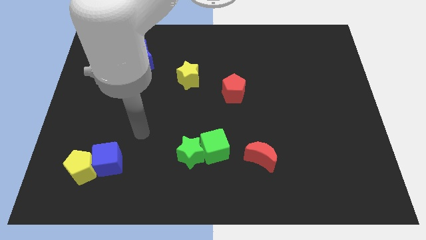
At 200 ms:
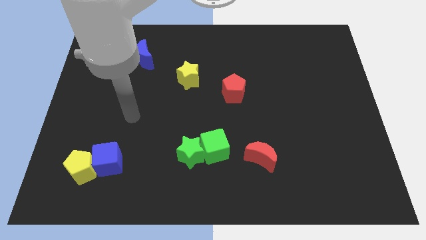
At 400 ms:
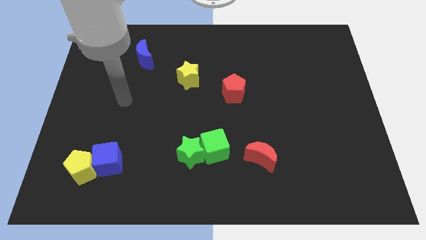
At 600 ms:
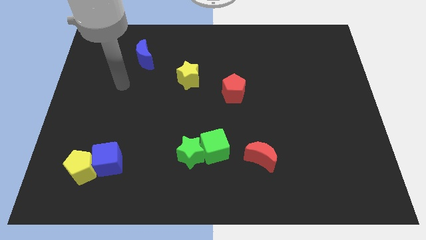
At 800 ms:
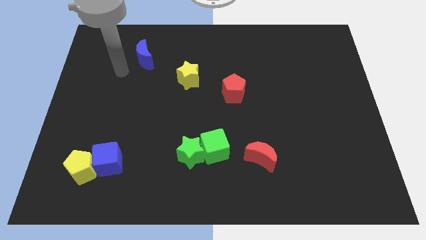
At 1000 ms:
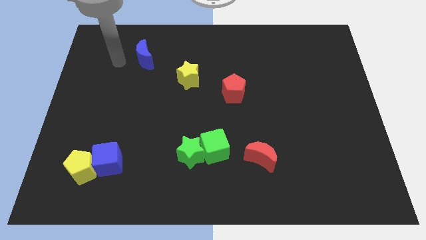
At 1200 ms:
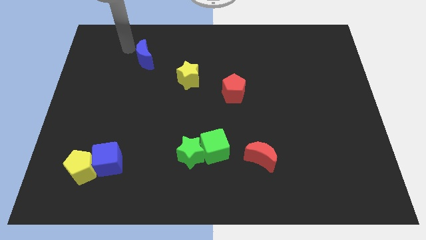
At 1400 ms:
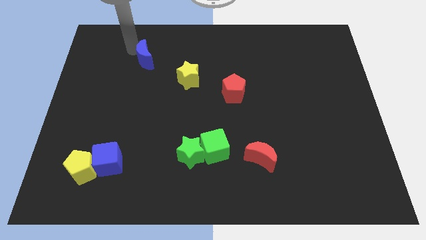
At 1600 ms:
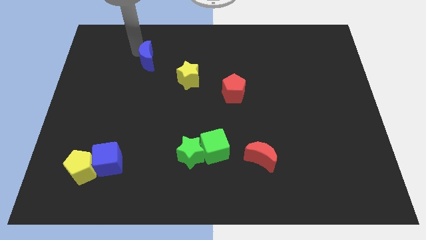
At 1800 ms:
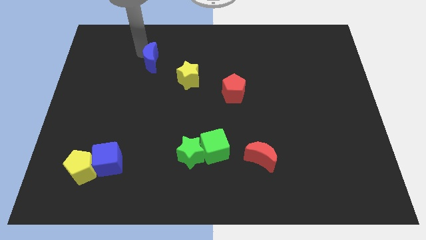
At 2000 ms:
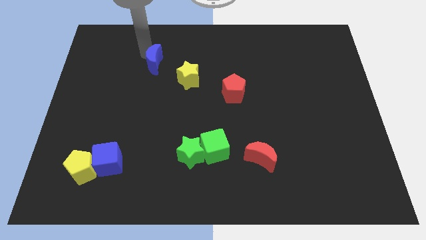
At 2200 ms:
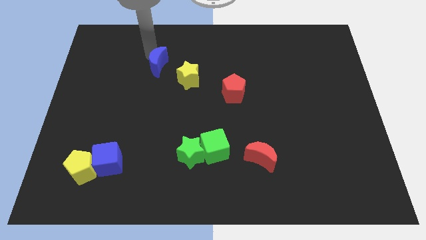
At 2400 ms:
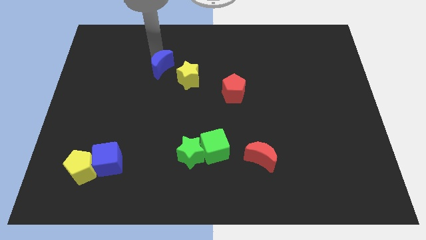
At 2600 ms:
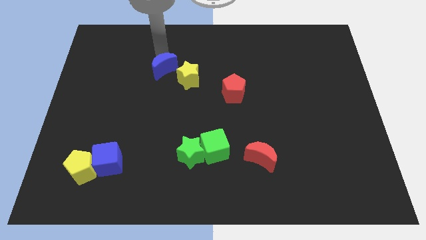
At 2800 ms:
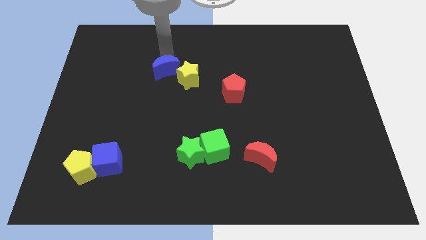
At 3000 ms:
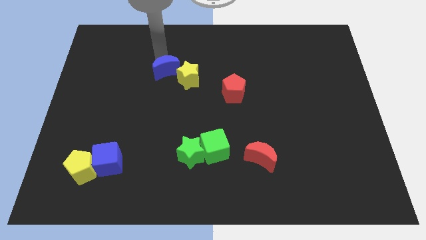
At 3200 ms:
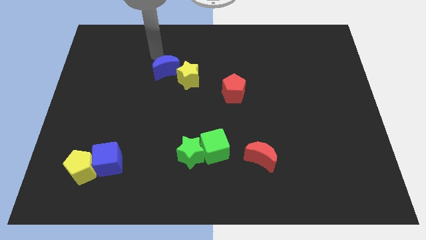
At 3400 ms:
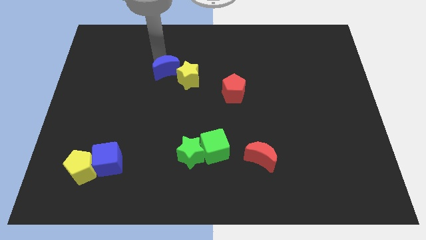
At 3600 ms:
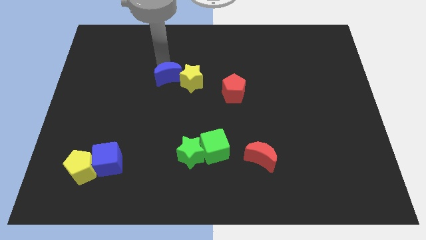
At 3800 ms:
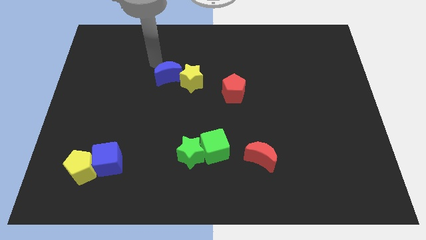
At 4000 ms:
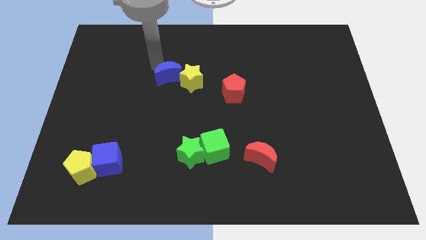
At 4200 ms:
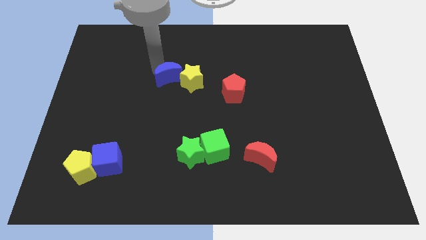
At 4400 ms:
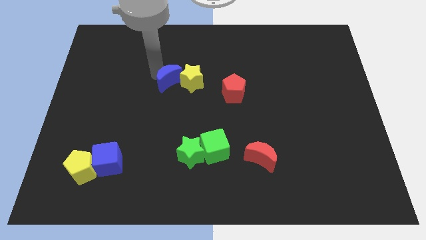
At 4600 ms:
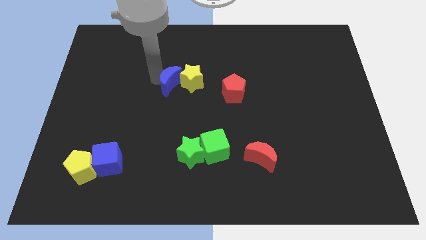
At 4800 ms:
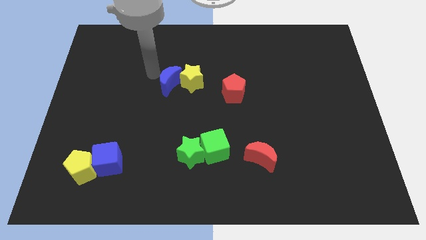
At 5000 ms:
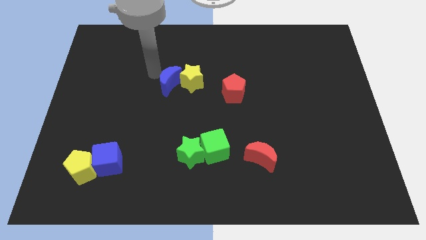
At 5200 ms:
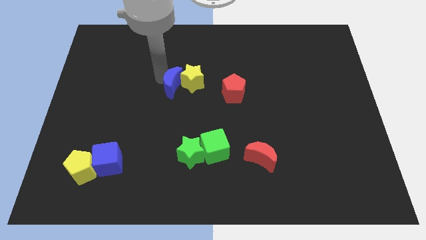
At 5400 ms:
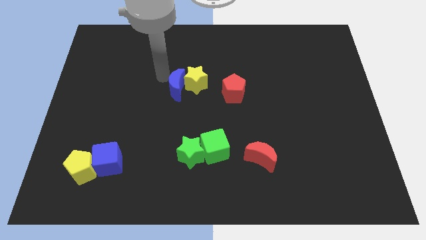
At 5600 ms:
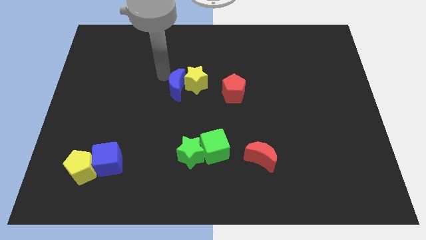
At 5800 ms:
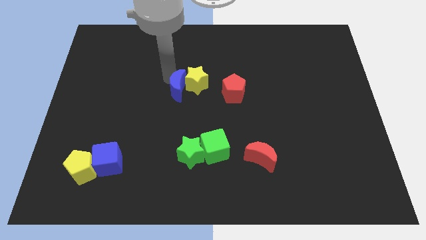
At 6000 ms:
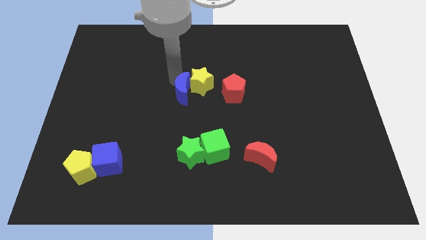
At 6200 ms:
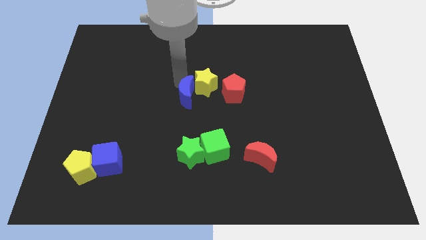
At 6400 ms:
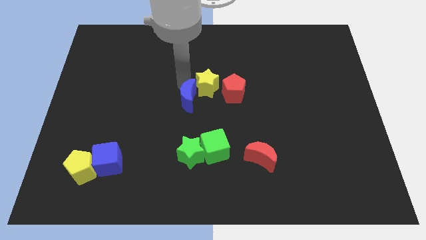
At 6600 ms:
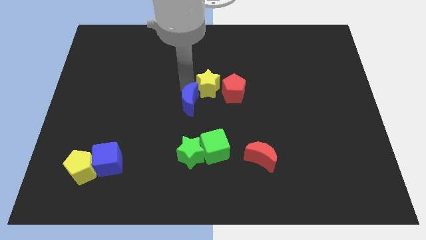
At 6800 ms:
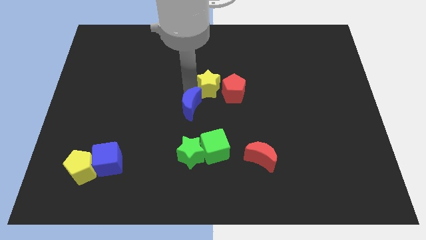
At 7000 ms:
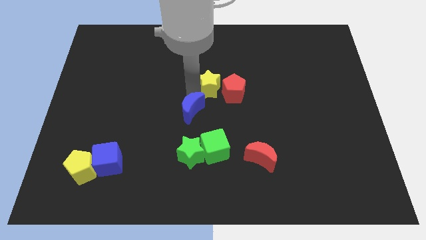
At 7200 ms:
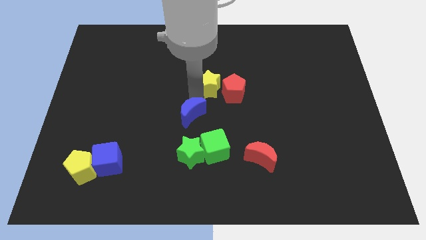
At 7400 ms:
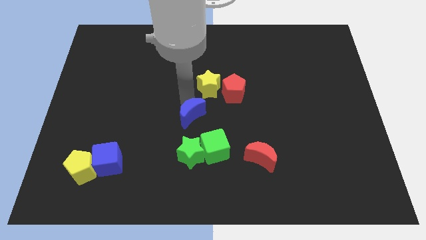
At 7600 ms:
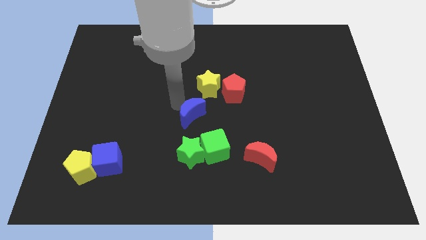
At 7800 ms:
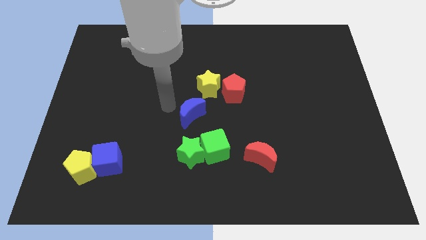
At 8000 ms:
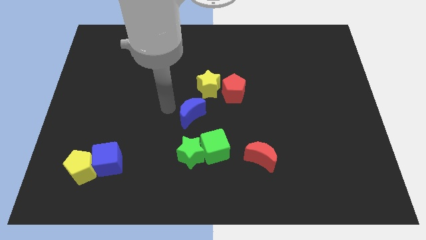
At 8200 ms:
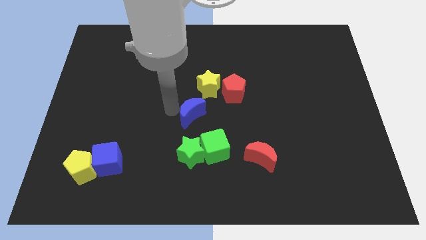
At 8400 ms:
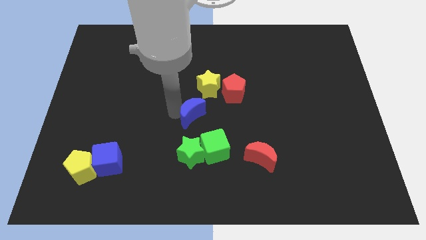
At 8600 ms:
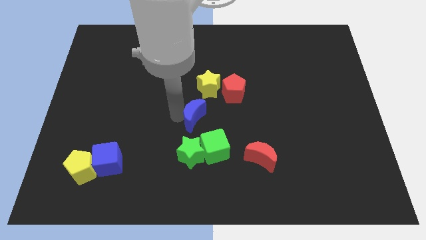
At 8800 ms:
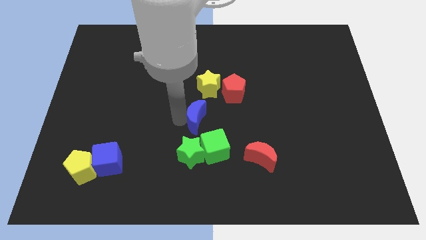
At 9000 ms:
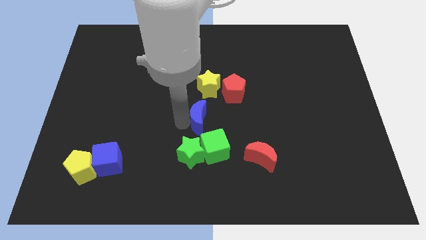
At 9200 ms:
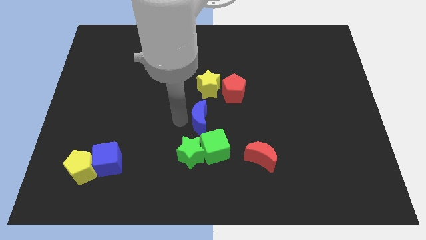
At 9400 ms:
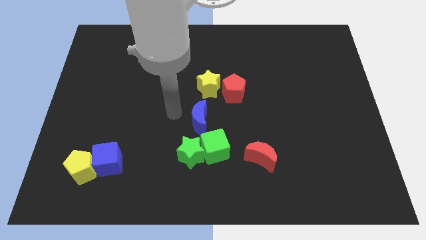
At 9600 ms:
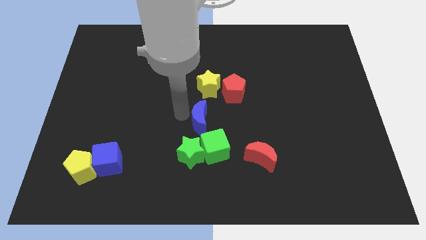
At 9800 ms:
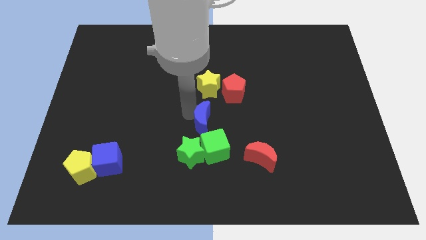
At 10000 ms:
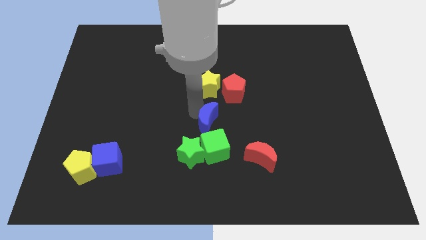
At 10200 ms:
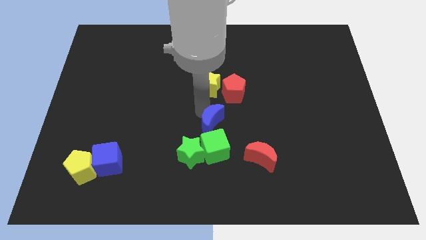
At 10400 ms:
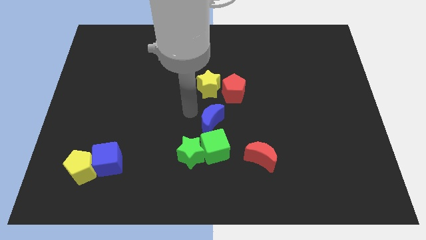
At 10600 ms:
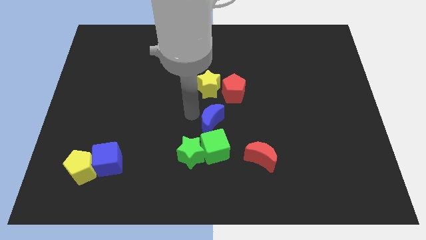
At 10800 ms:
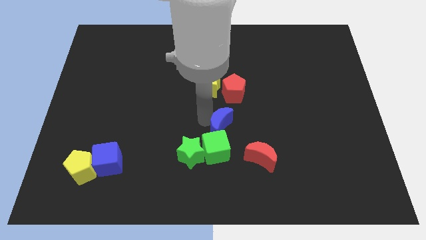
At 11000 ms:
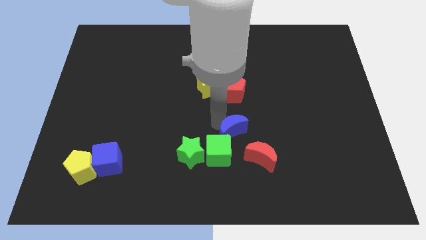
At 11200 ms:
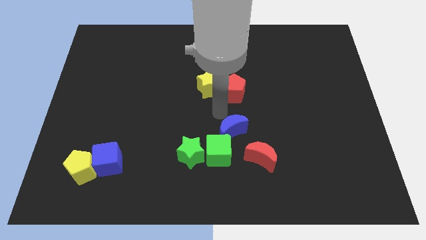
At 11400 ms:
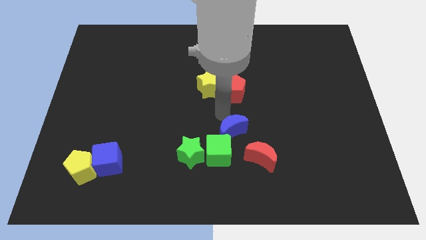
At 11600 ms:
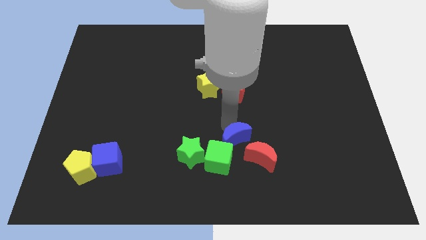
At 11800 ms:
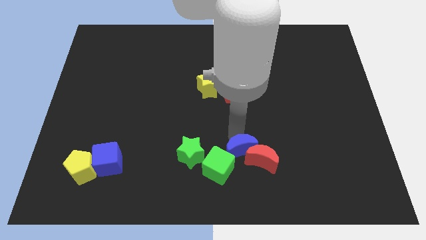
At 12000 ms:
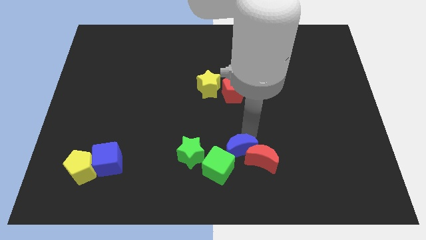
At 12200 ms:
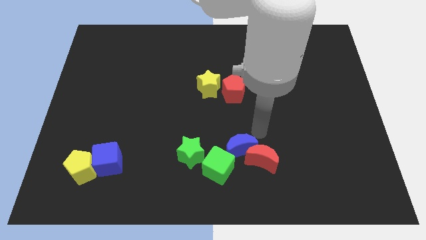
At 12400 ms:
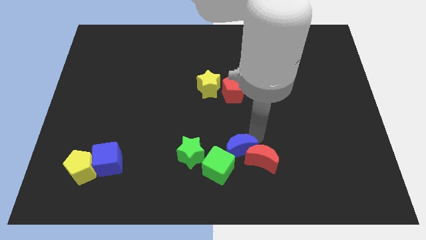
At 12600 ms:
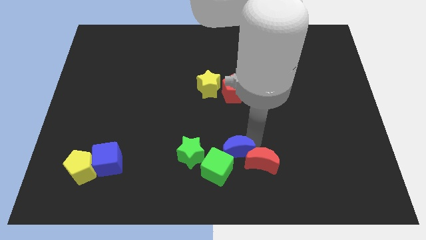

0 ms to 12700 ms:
put the blue moon close to the green cube
